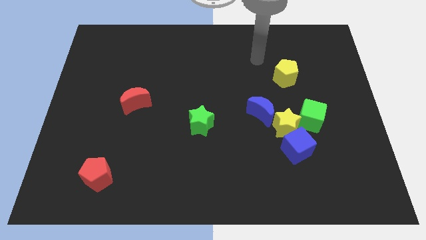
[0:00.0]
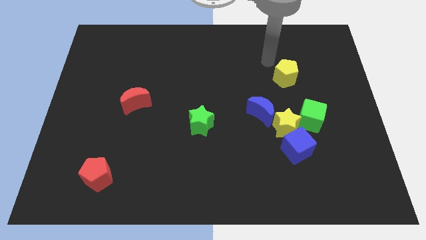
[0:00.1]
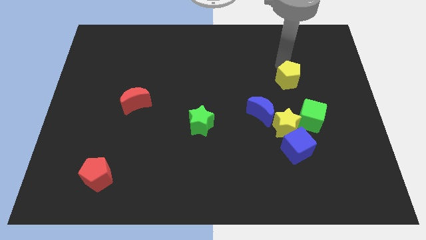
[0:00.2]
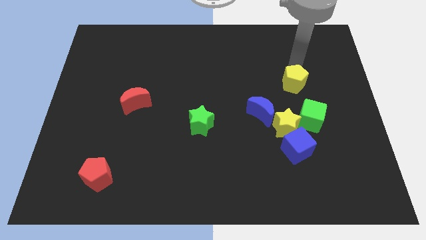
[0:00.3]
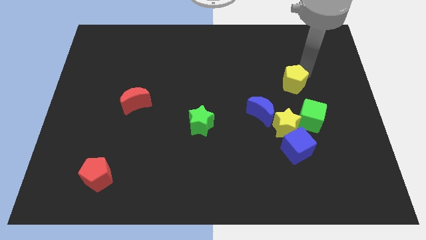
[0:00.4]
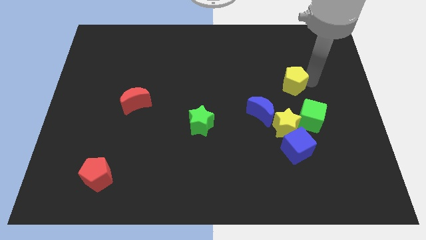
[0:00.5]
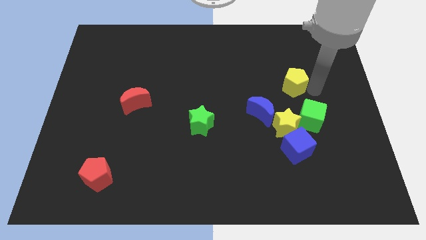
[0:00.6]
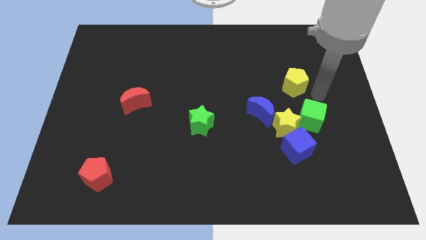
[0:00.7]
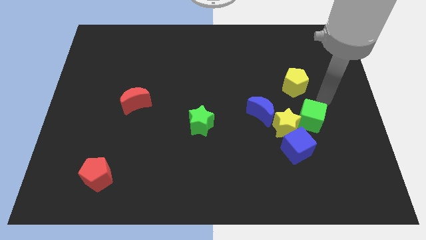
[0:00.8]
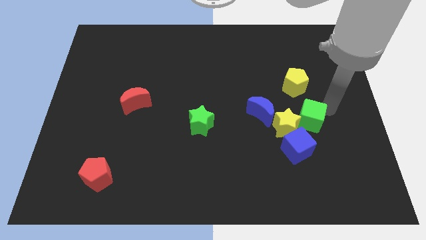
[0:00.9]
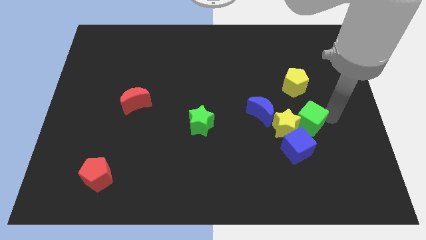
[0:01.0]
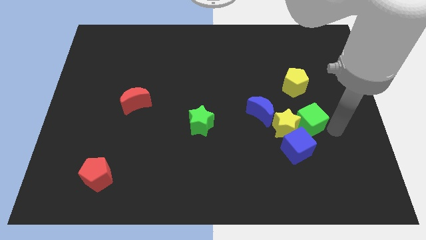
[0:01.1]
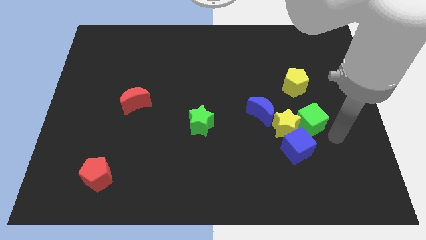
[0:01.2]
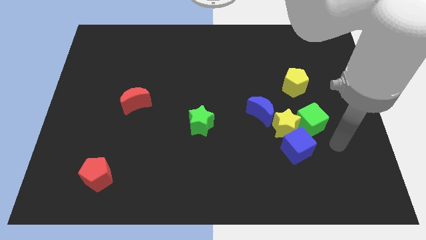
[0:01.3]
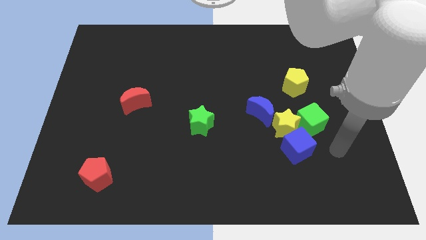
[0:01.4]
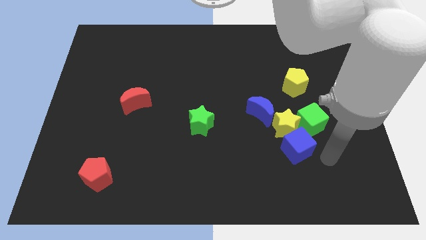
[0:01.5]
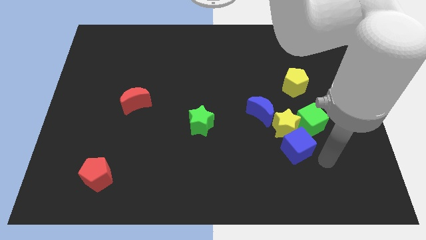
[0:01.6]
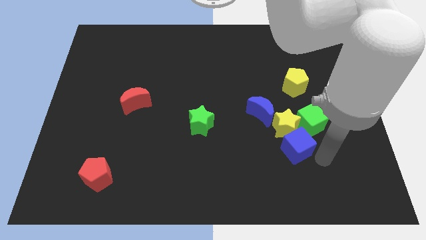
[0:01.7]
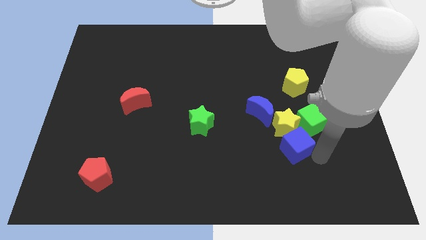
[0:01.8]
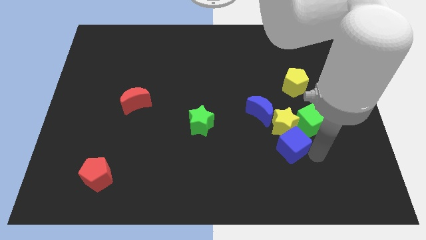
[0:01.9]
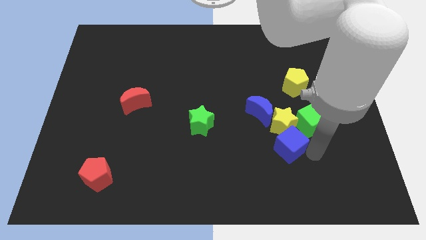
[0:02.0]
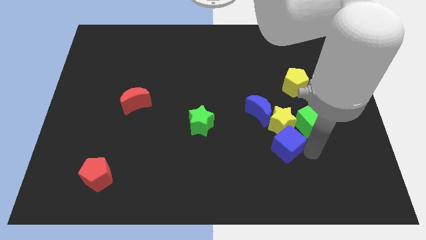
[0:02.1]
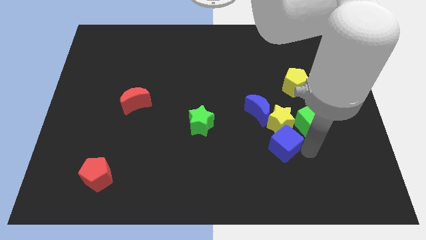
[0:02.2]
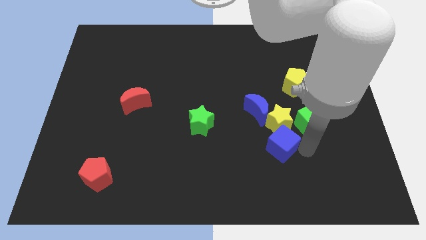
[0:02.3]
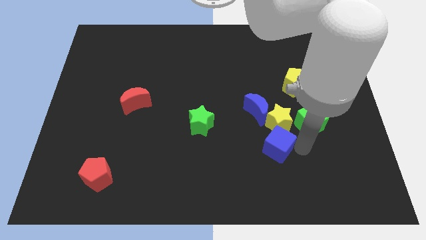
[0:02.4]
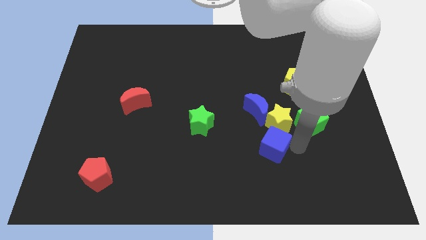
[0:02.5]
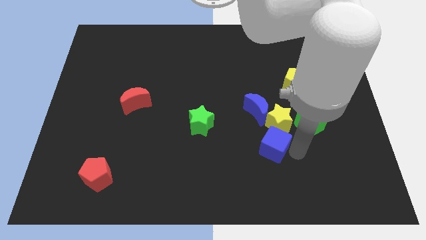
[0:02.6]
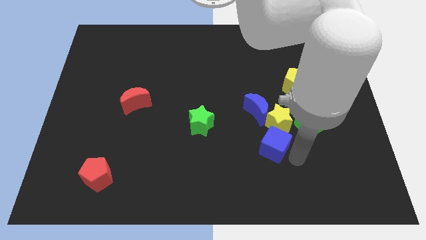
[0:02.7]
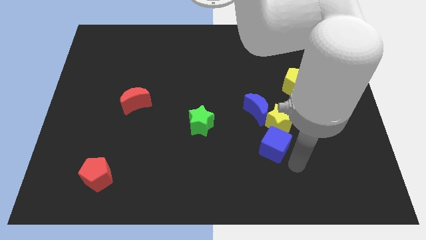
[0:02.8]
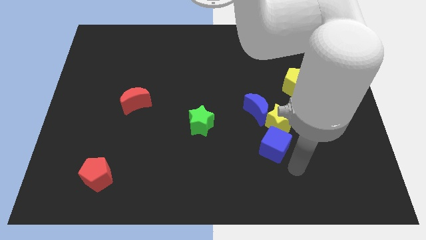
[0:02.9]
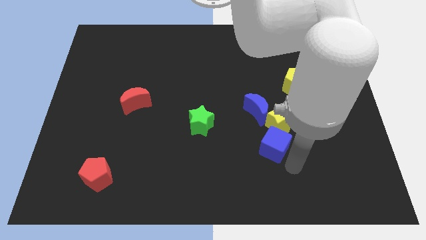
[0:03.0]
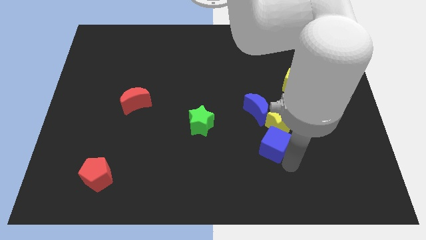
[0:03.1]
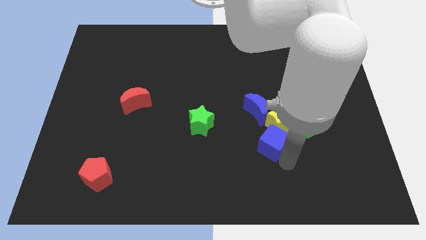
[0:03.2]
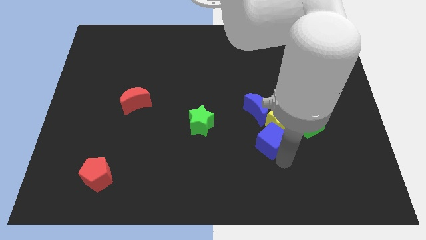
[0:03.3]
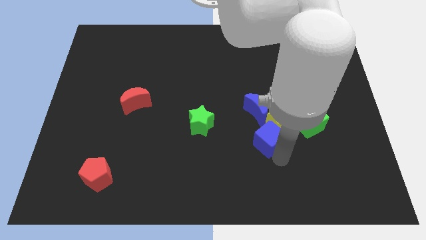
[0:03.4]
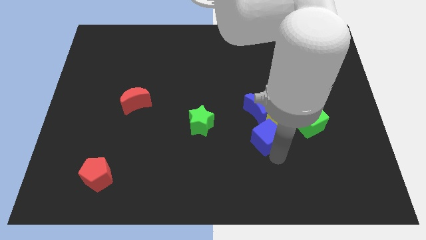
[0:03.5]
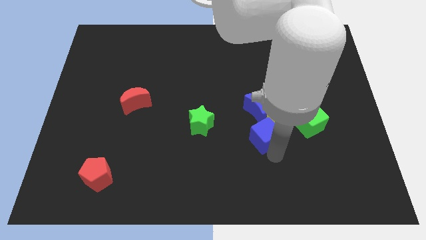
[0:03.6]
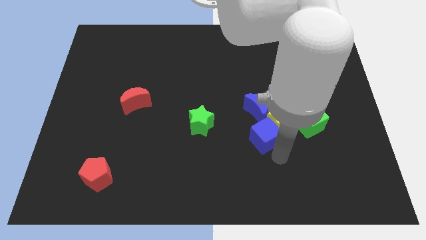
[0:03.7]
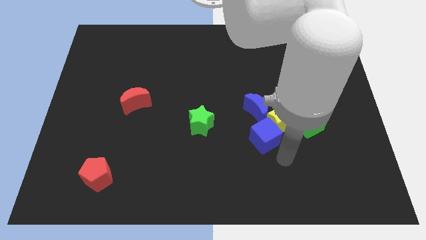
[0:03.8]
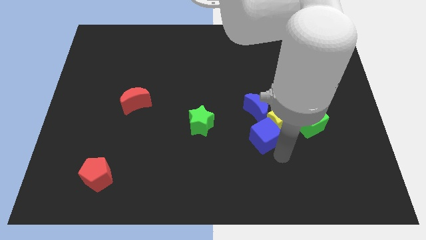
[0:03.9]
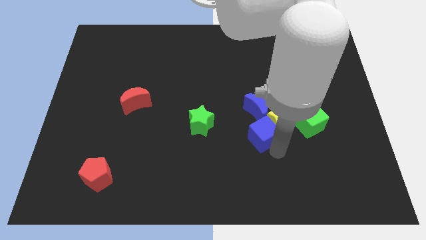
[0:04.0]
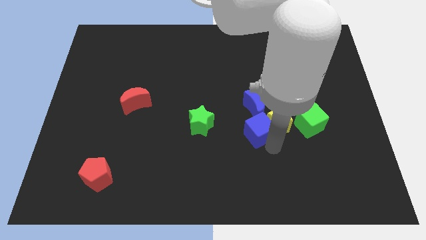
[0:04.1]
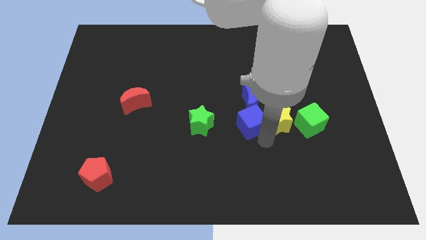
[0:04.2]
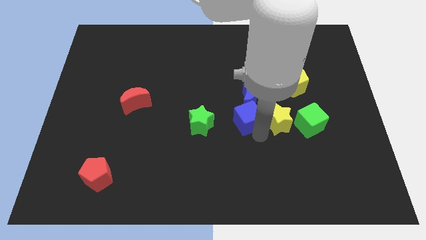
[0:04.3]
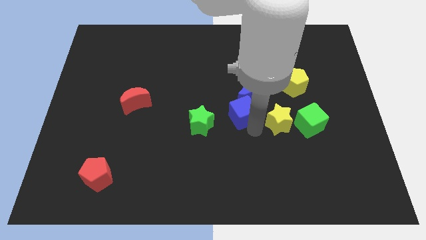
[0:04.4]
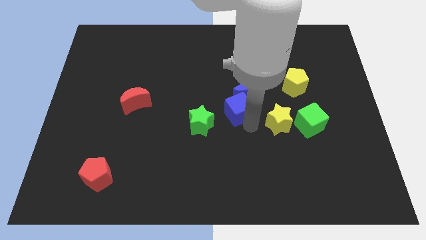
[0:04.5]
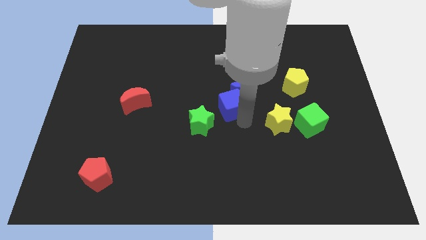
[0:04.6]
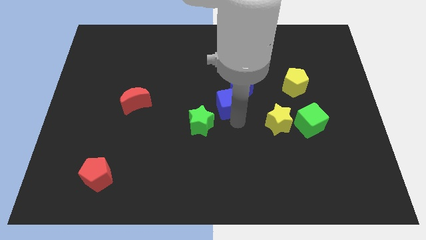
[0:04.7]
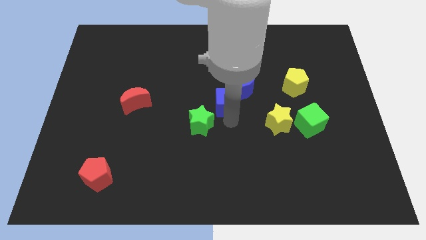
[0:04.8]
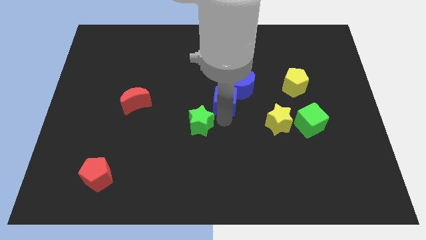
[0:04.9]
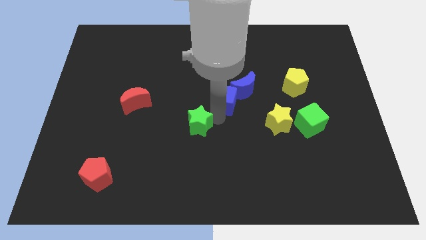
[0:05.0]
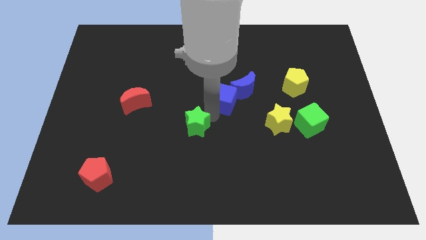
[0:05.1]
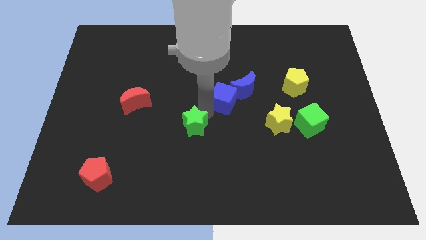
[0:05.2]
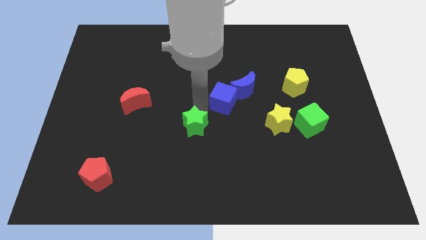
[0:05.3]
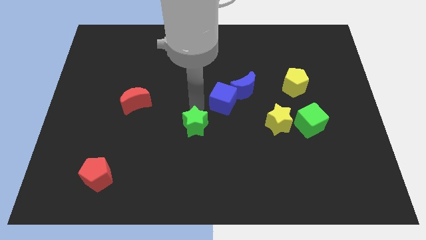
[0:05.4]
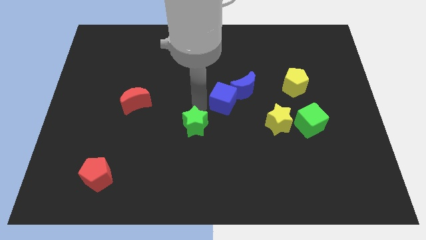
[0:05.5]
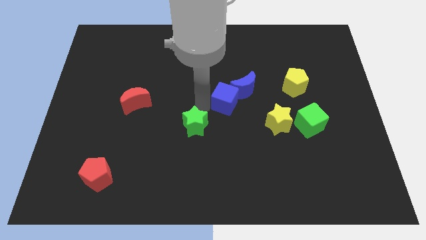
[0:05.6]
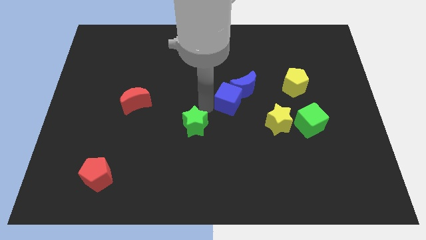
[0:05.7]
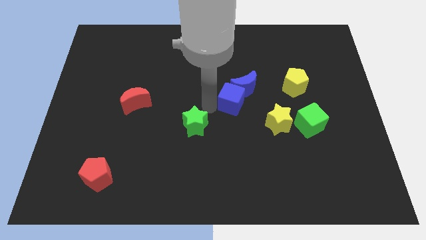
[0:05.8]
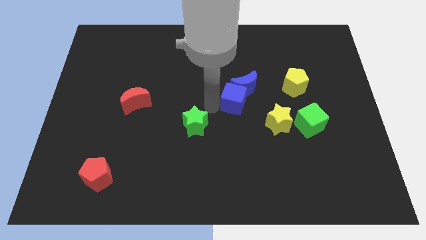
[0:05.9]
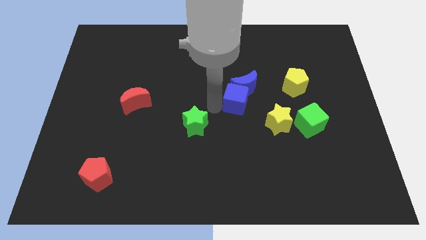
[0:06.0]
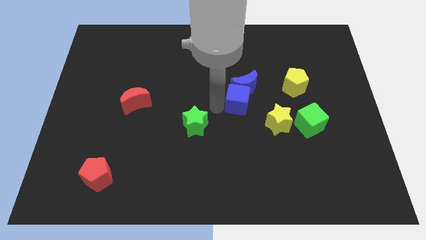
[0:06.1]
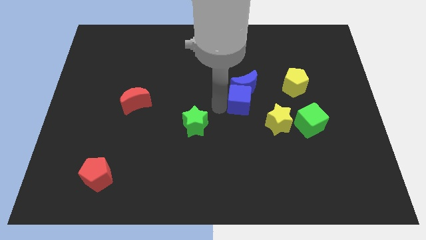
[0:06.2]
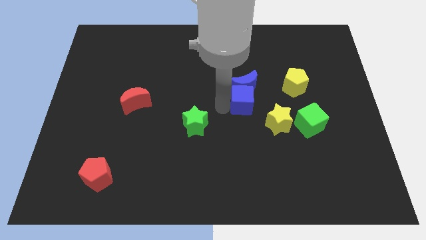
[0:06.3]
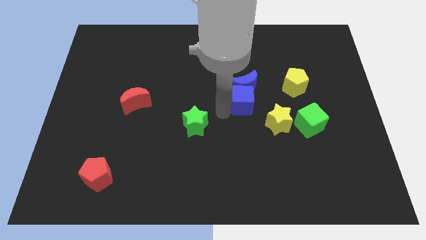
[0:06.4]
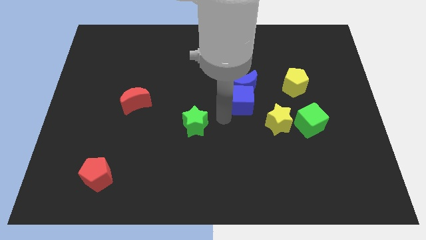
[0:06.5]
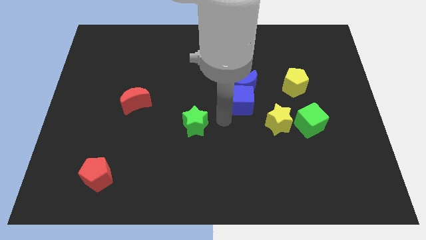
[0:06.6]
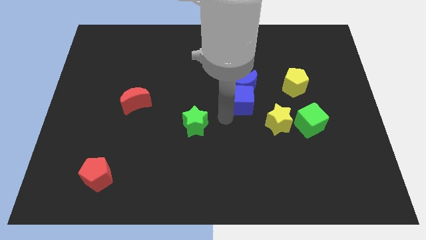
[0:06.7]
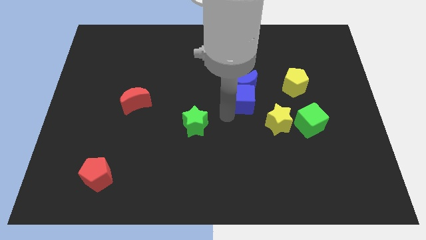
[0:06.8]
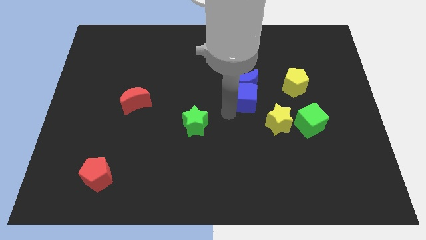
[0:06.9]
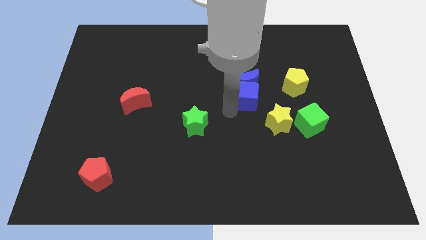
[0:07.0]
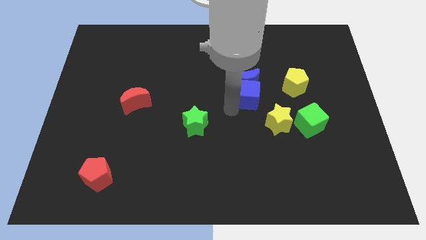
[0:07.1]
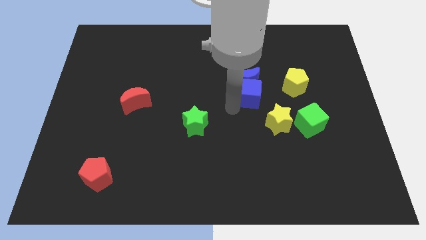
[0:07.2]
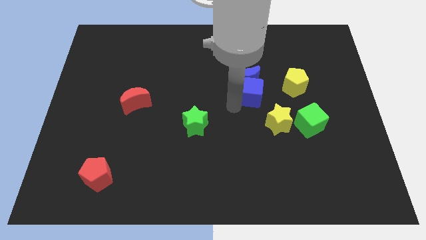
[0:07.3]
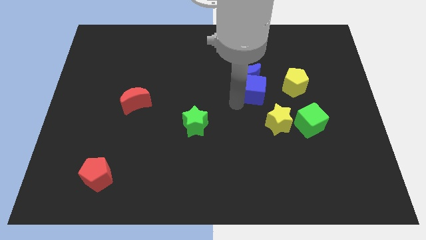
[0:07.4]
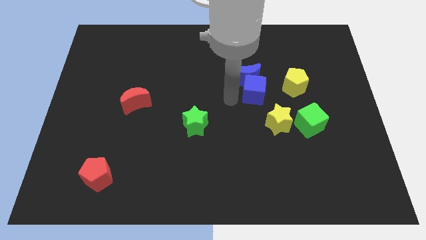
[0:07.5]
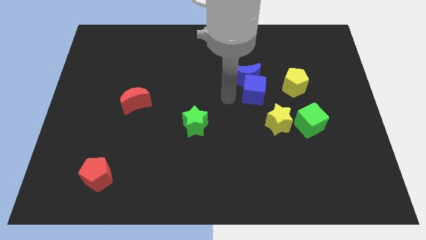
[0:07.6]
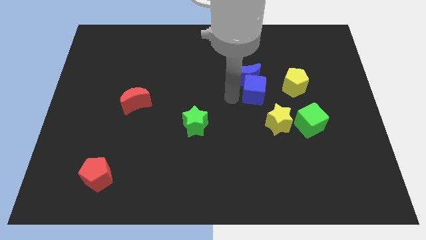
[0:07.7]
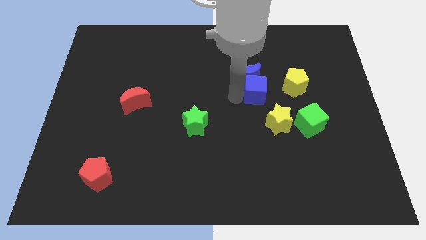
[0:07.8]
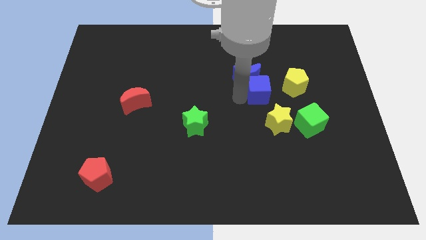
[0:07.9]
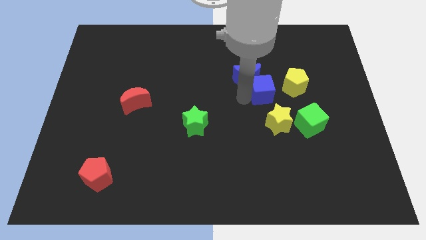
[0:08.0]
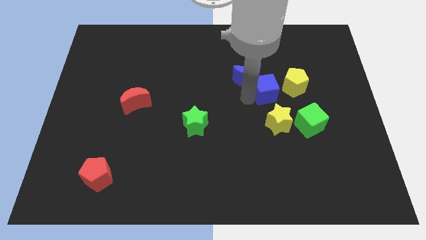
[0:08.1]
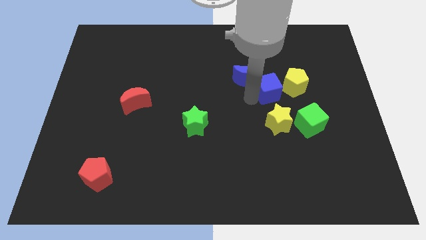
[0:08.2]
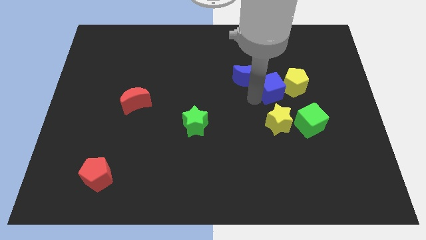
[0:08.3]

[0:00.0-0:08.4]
push the blue cube towards the yellow pentagon
